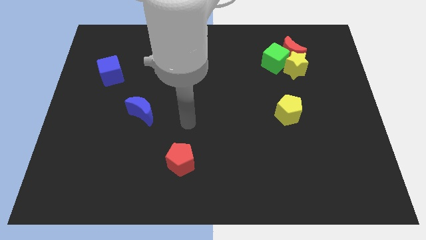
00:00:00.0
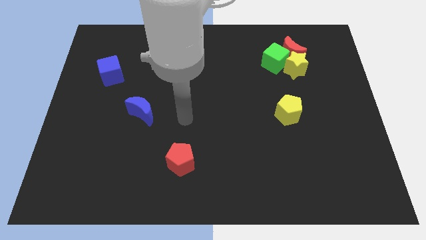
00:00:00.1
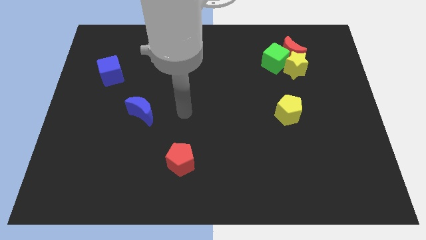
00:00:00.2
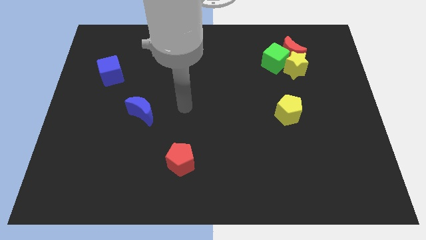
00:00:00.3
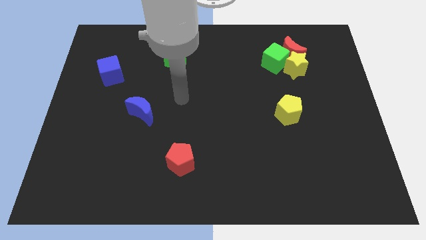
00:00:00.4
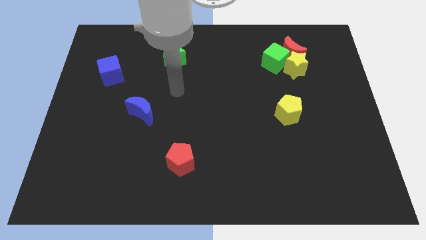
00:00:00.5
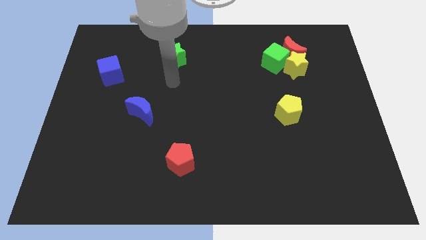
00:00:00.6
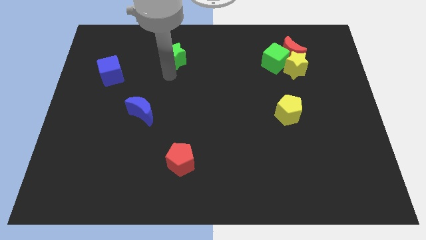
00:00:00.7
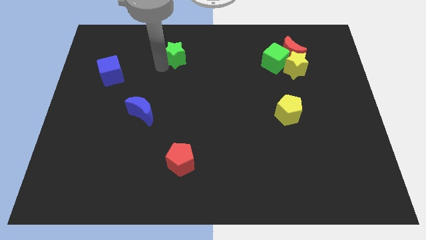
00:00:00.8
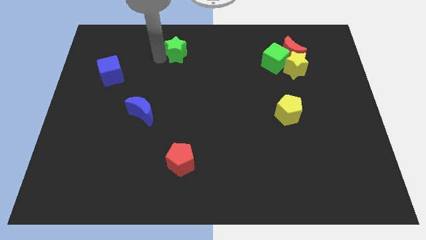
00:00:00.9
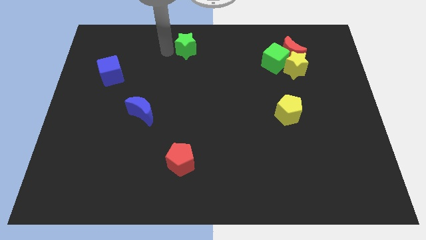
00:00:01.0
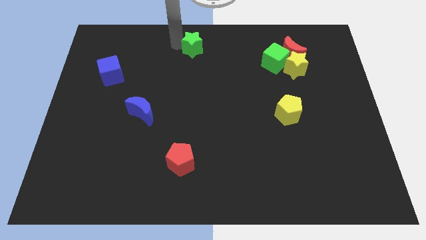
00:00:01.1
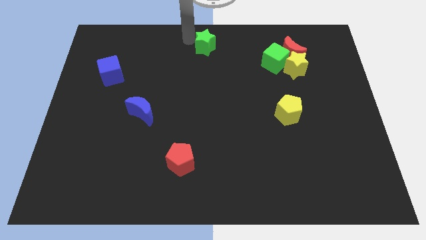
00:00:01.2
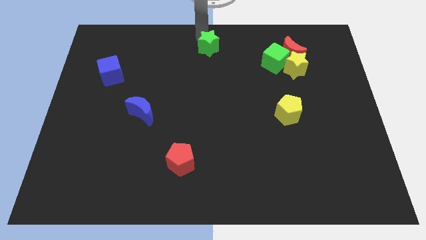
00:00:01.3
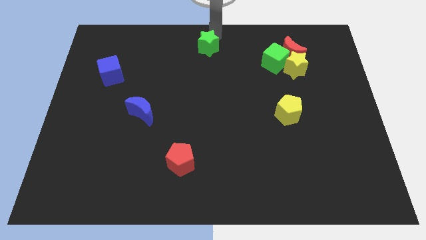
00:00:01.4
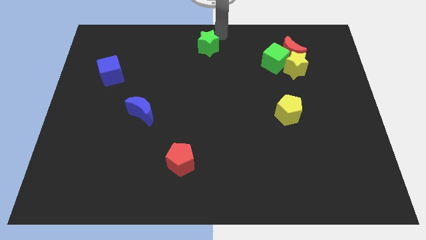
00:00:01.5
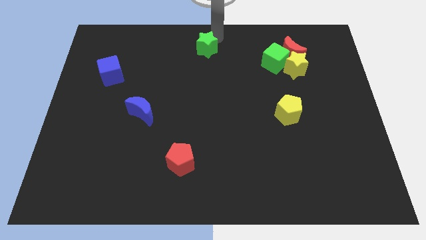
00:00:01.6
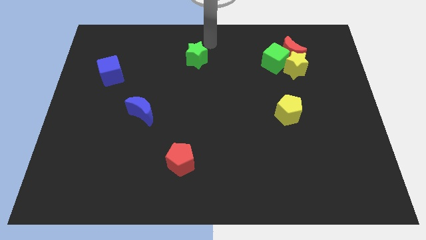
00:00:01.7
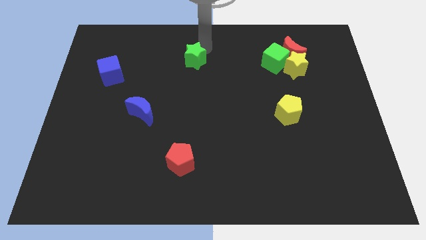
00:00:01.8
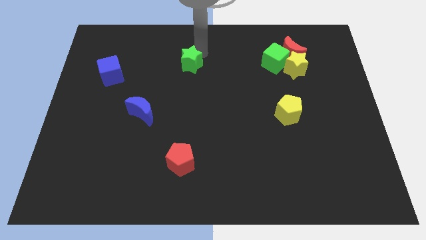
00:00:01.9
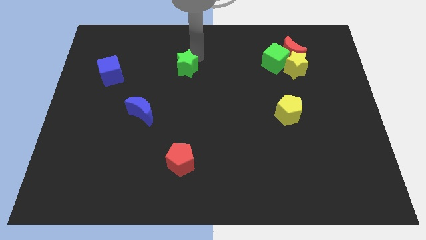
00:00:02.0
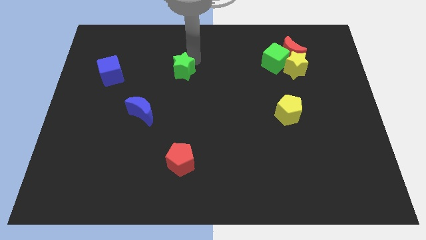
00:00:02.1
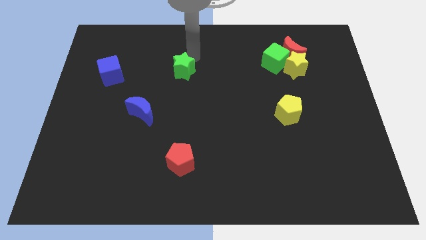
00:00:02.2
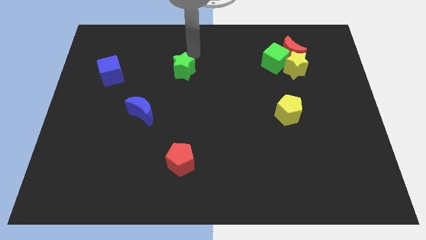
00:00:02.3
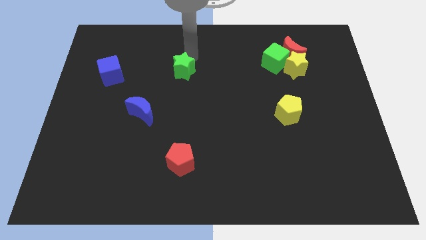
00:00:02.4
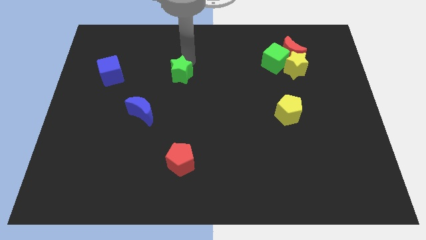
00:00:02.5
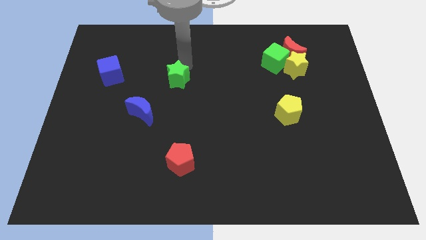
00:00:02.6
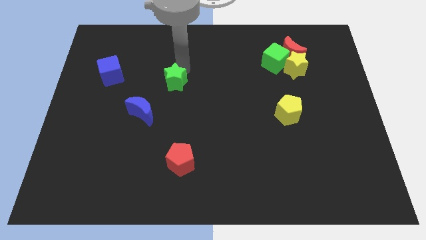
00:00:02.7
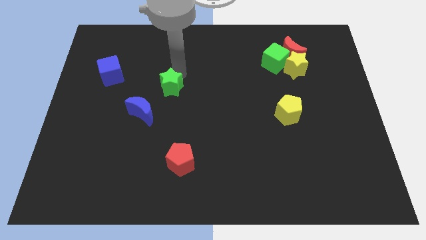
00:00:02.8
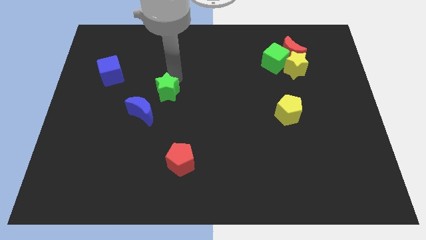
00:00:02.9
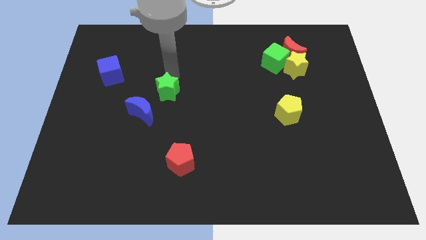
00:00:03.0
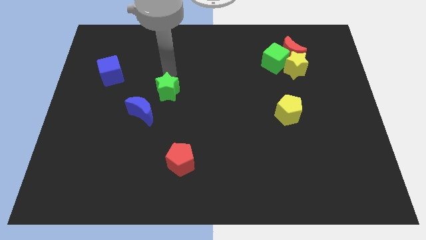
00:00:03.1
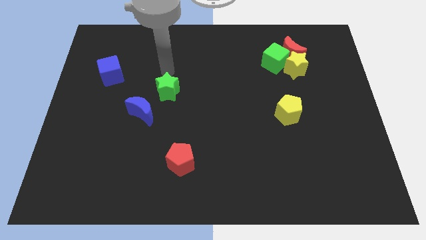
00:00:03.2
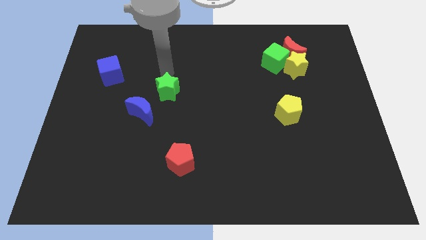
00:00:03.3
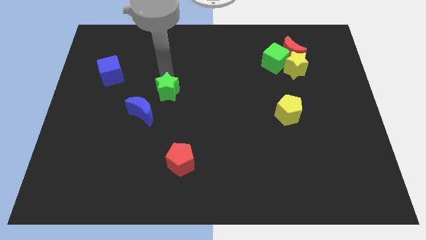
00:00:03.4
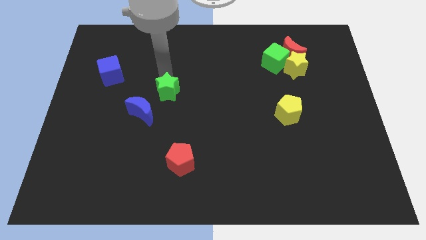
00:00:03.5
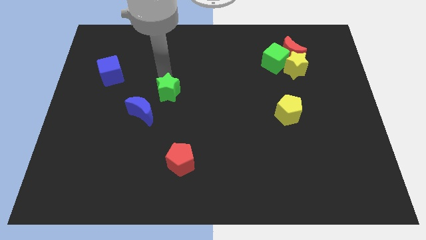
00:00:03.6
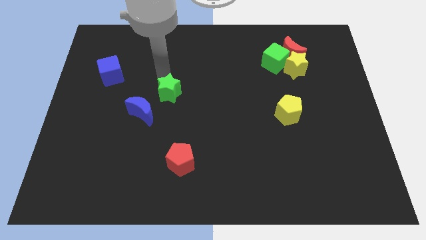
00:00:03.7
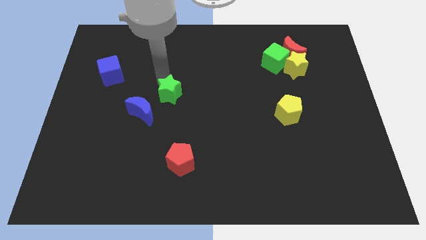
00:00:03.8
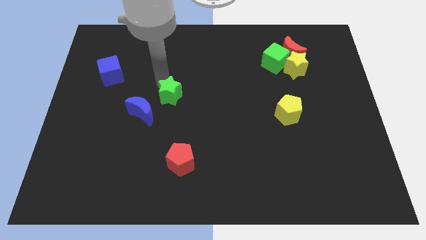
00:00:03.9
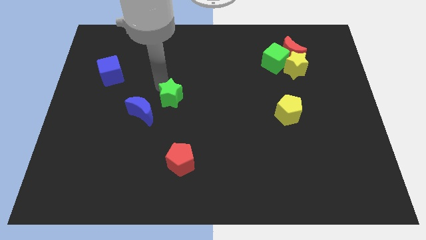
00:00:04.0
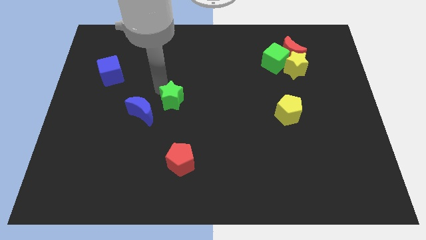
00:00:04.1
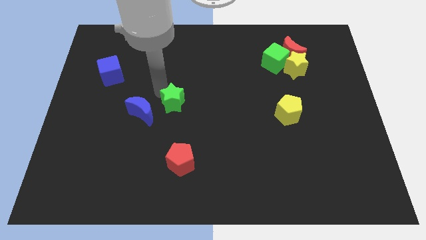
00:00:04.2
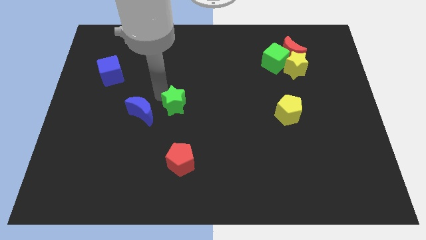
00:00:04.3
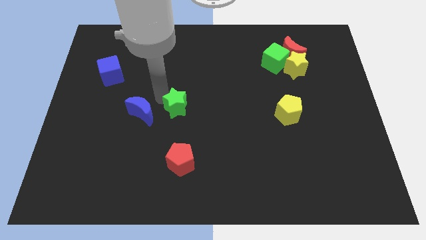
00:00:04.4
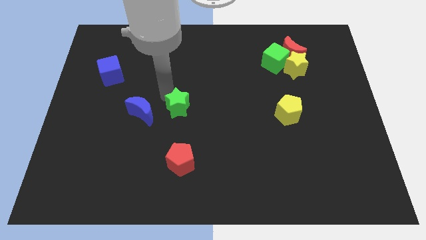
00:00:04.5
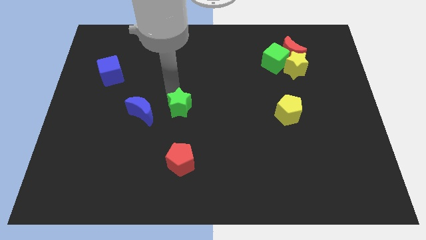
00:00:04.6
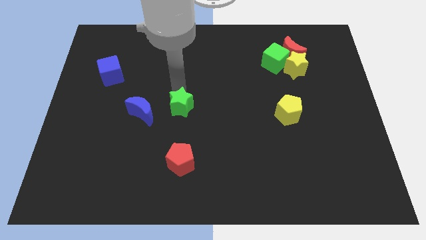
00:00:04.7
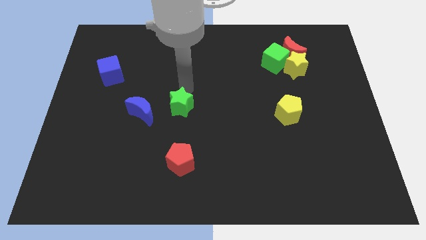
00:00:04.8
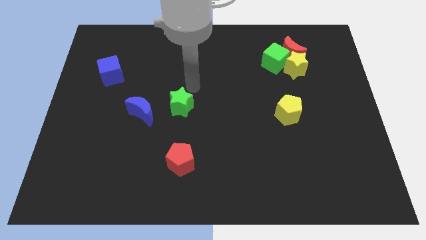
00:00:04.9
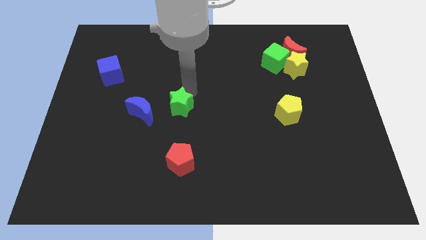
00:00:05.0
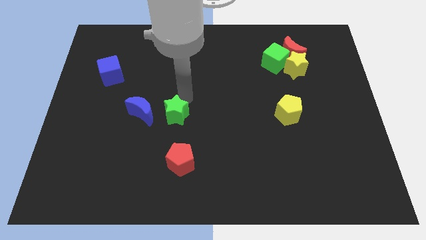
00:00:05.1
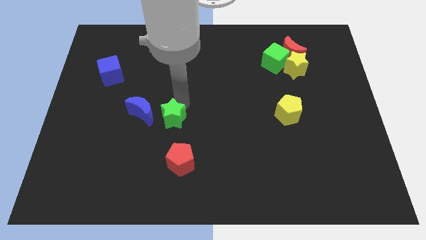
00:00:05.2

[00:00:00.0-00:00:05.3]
put the green star diagonally down and to the right of the blue moon

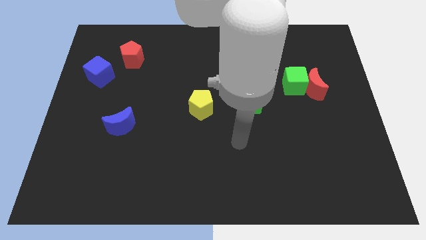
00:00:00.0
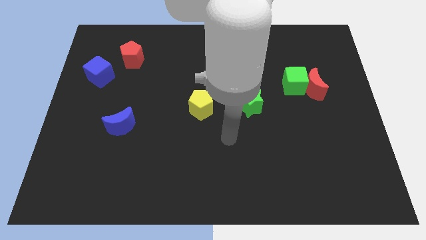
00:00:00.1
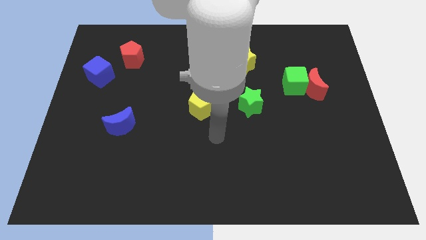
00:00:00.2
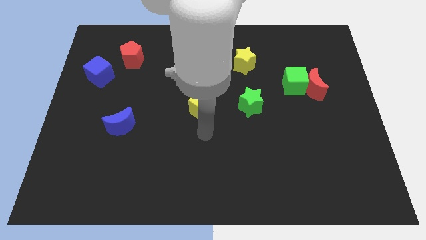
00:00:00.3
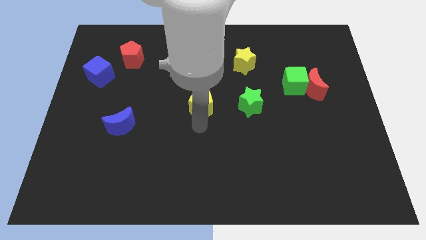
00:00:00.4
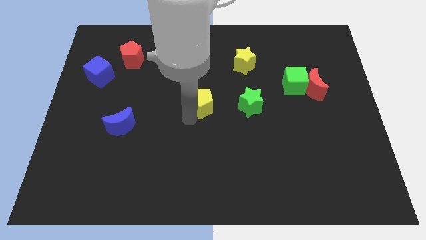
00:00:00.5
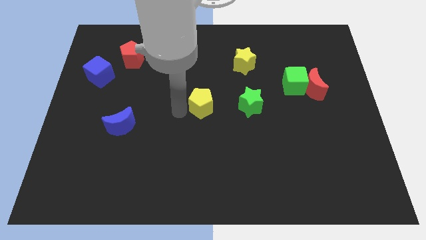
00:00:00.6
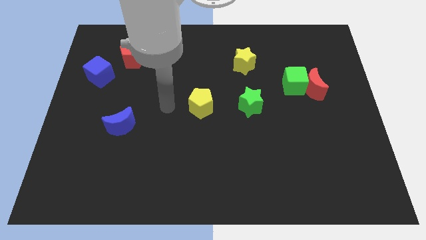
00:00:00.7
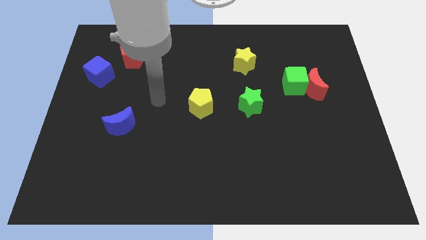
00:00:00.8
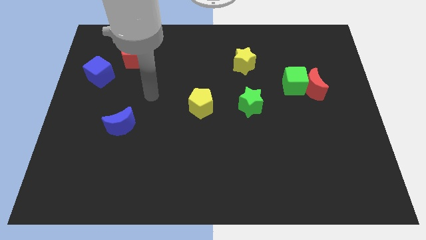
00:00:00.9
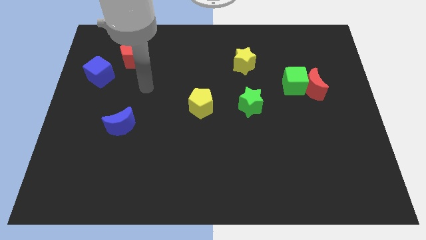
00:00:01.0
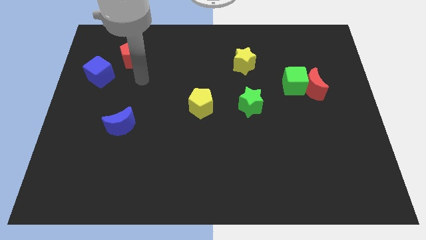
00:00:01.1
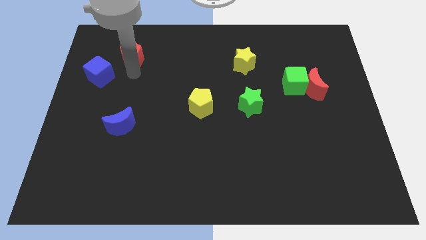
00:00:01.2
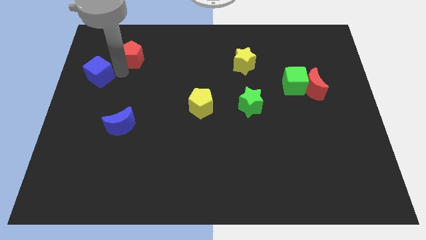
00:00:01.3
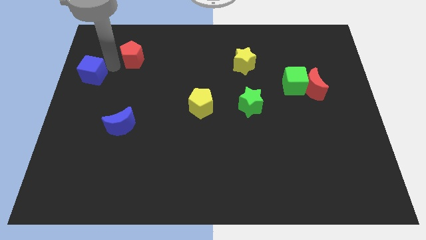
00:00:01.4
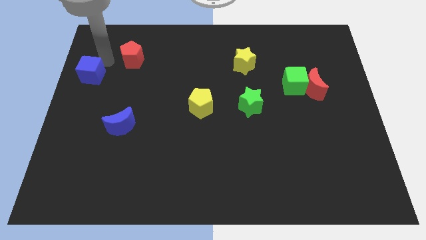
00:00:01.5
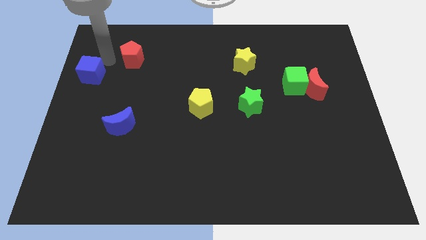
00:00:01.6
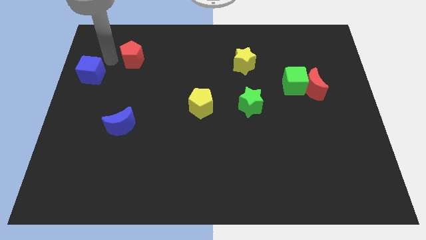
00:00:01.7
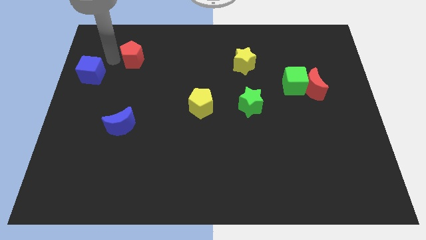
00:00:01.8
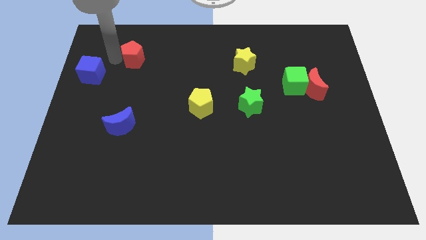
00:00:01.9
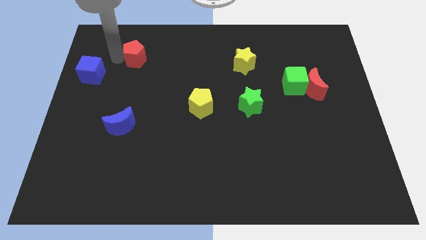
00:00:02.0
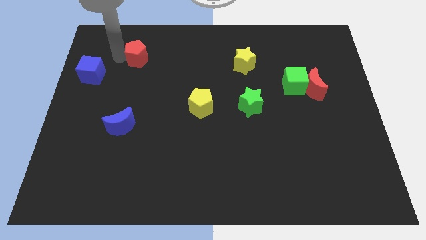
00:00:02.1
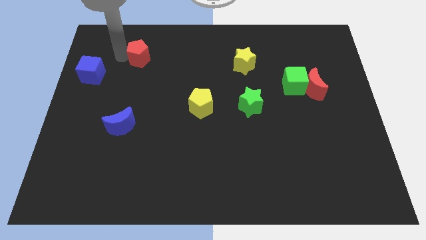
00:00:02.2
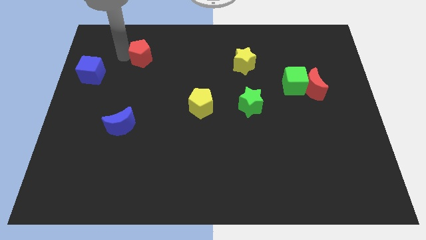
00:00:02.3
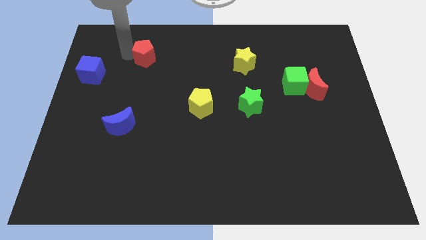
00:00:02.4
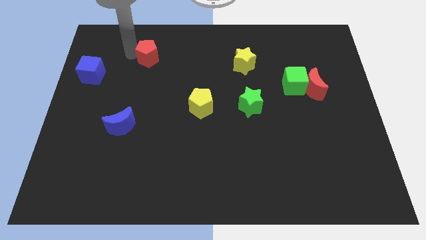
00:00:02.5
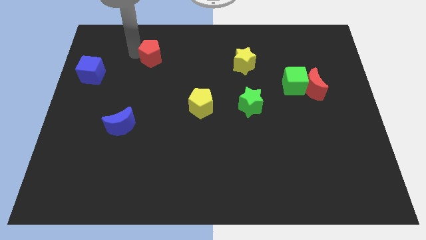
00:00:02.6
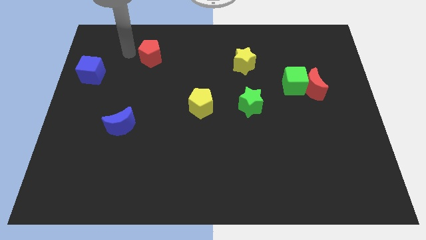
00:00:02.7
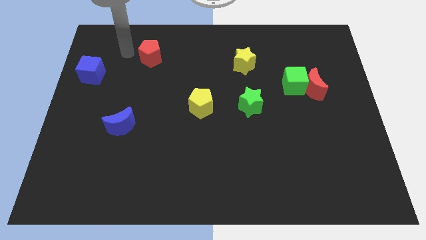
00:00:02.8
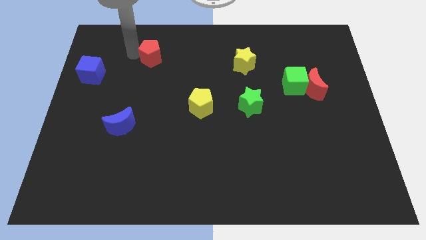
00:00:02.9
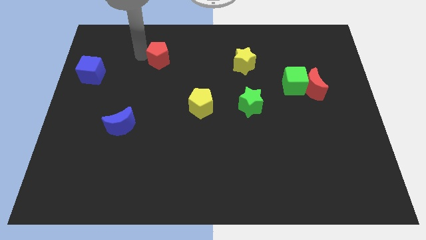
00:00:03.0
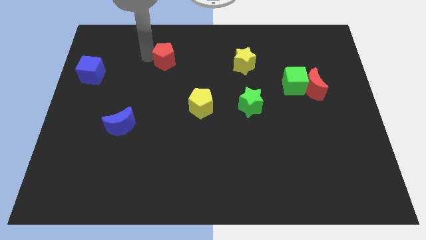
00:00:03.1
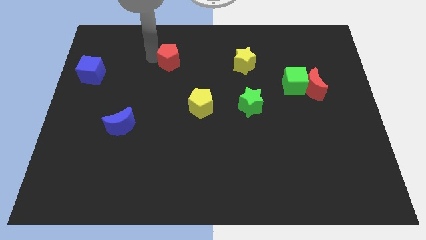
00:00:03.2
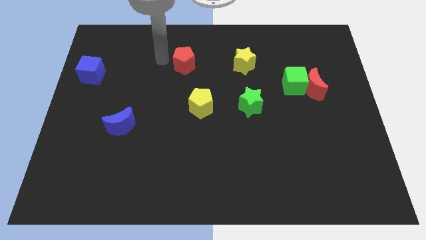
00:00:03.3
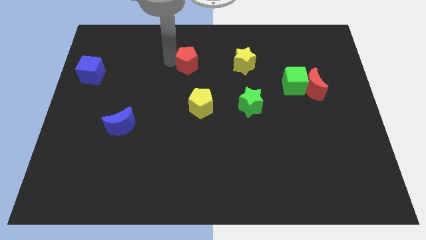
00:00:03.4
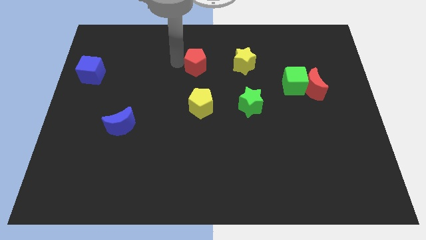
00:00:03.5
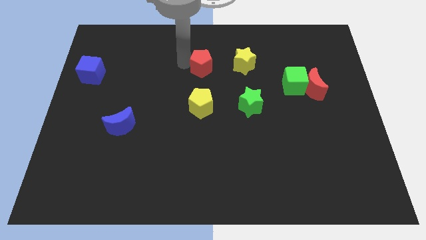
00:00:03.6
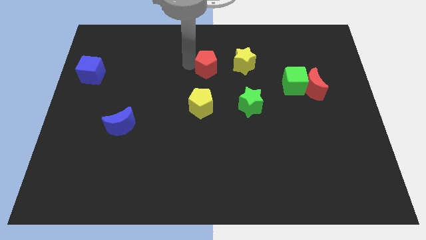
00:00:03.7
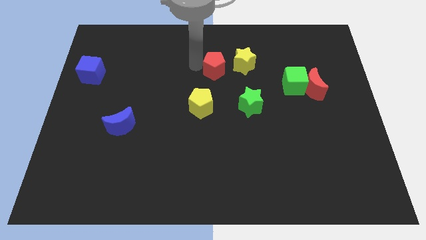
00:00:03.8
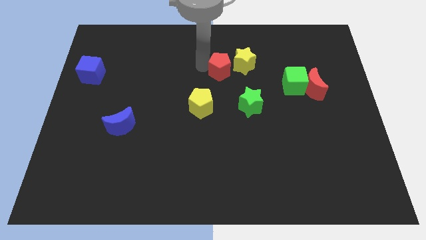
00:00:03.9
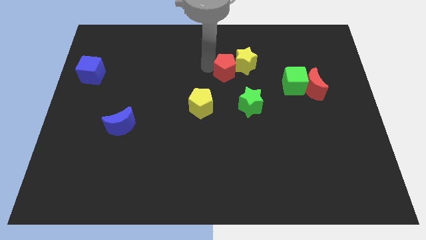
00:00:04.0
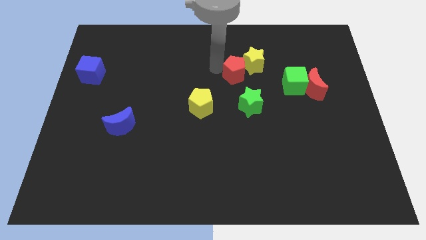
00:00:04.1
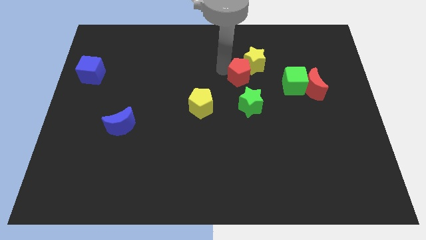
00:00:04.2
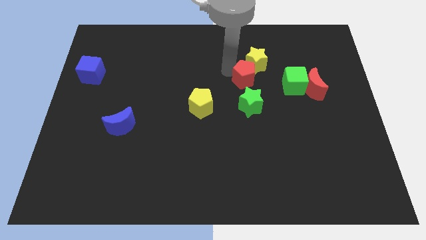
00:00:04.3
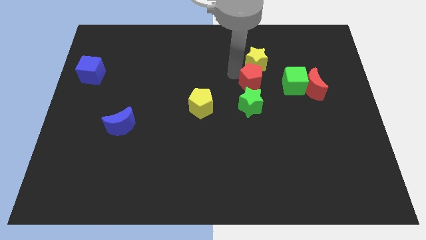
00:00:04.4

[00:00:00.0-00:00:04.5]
slide the red pentagon to the left of the red moon
